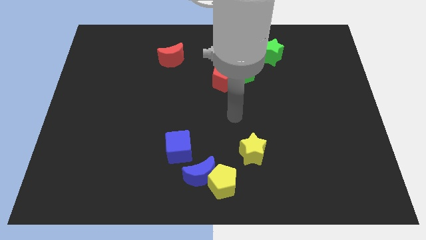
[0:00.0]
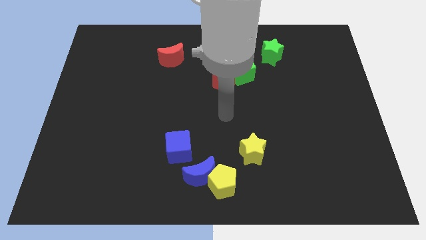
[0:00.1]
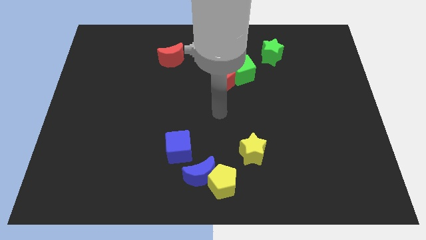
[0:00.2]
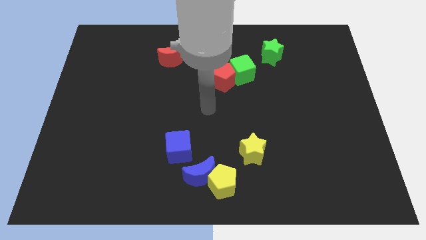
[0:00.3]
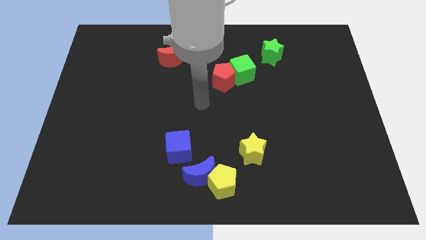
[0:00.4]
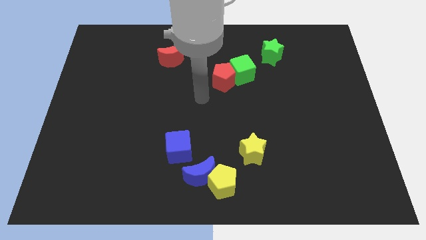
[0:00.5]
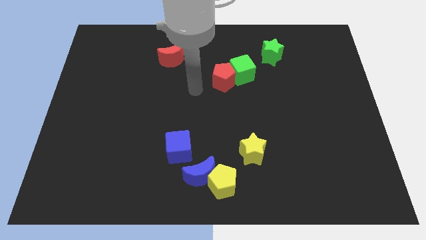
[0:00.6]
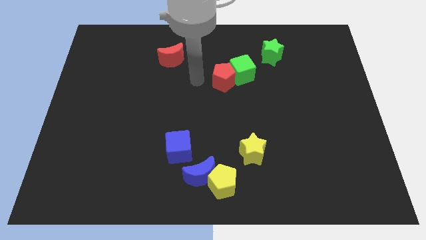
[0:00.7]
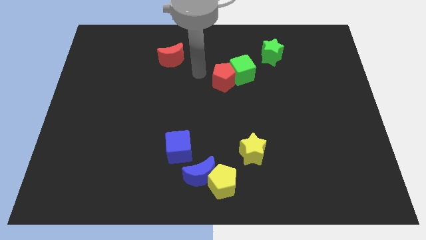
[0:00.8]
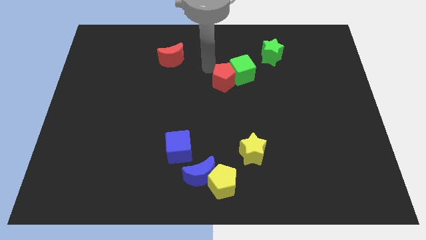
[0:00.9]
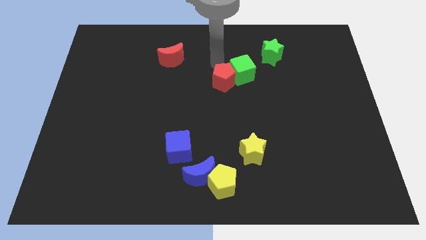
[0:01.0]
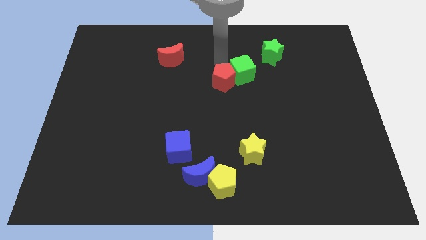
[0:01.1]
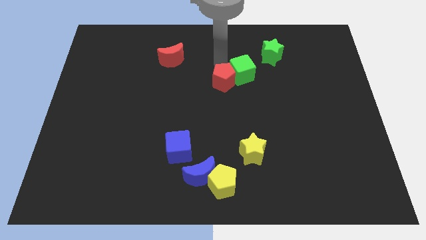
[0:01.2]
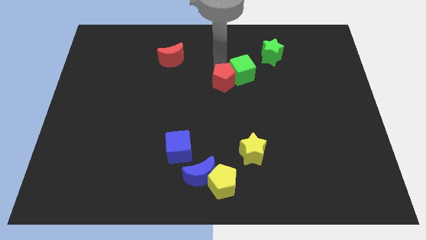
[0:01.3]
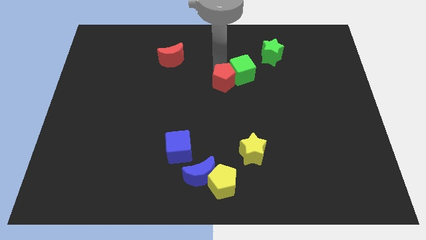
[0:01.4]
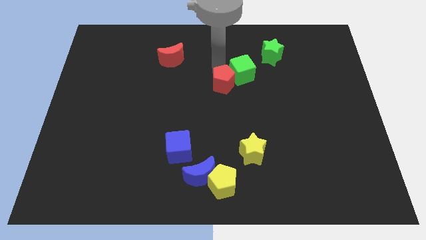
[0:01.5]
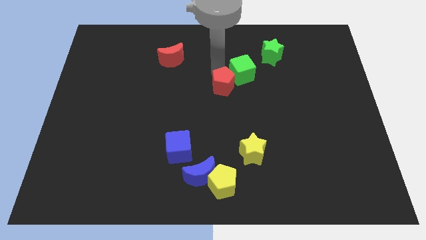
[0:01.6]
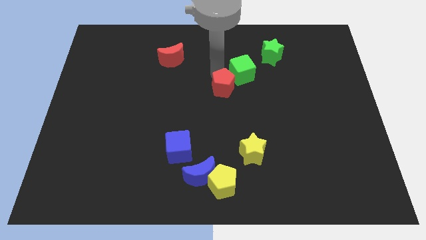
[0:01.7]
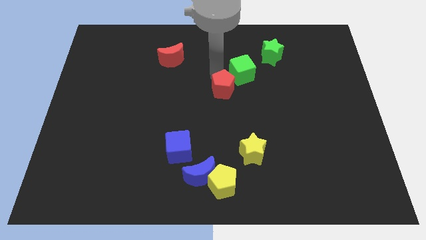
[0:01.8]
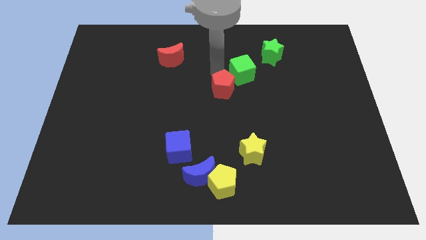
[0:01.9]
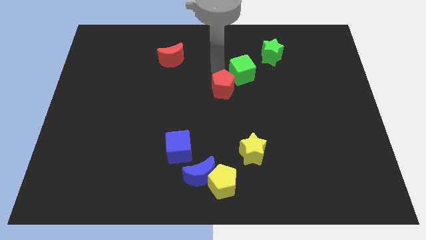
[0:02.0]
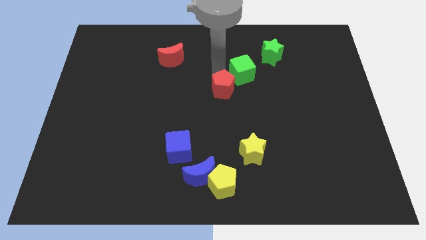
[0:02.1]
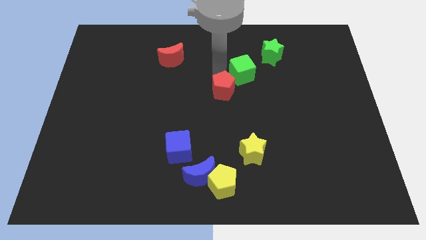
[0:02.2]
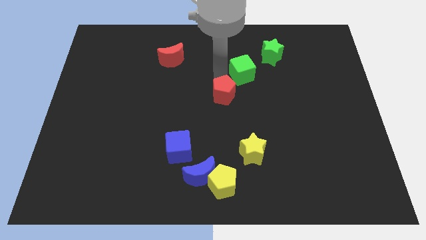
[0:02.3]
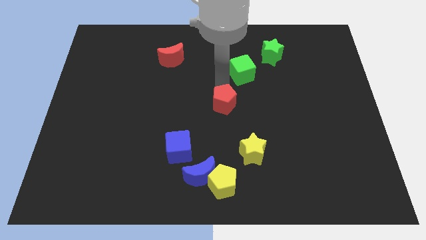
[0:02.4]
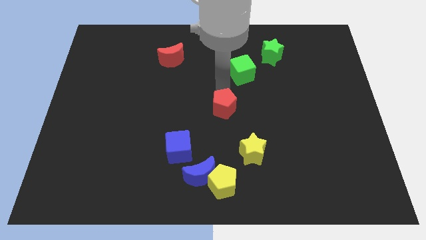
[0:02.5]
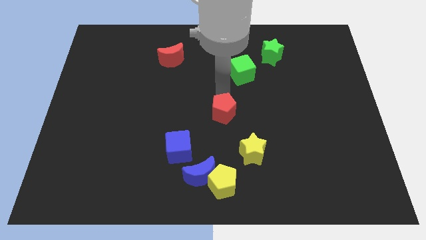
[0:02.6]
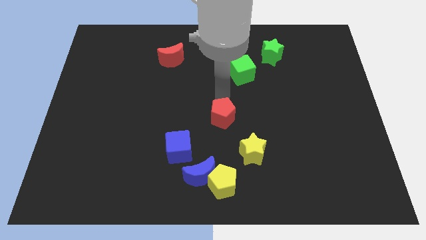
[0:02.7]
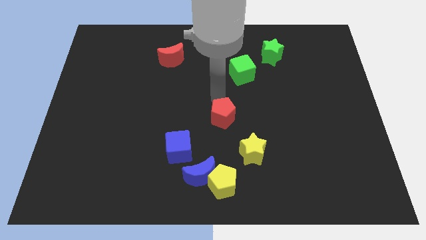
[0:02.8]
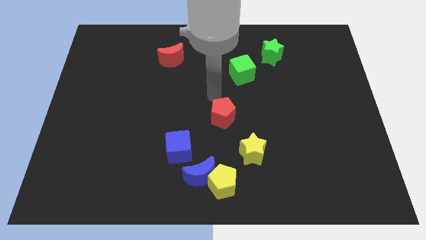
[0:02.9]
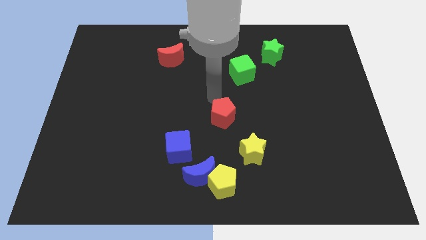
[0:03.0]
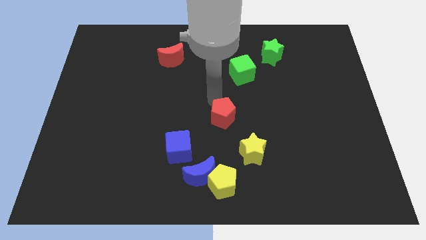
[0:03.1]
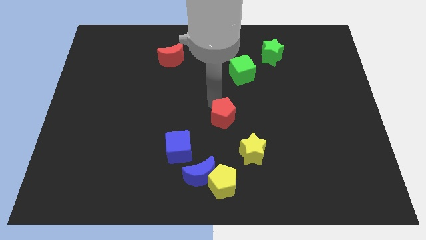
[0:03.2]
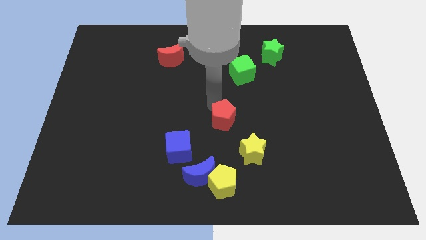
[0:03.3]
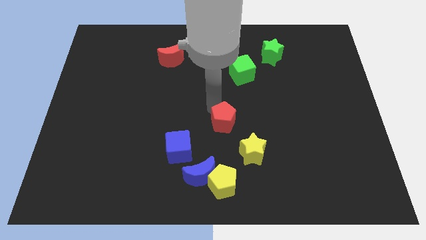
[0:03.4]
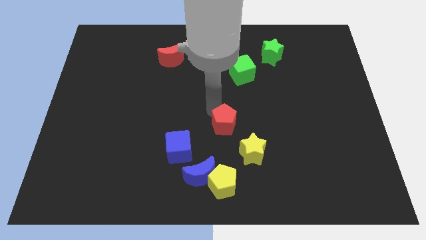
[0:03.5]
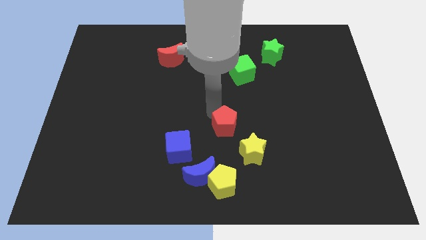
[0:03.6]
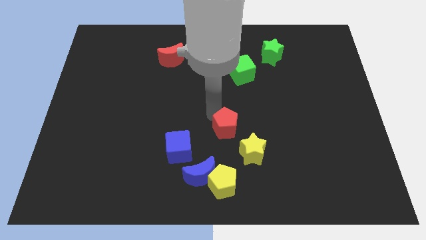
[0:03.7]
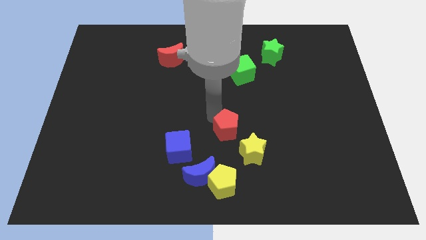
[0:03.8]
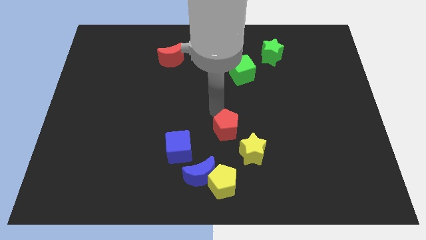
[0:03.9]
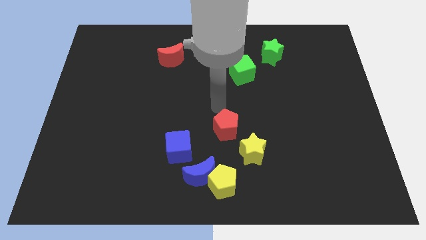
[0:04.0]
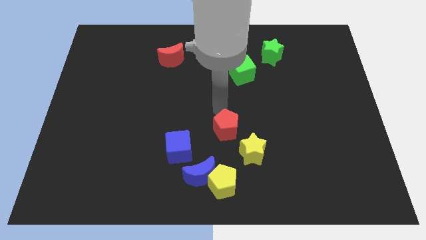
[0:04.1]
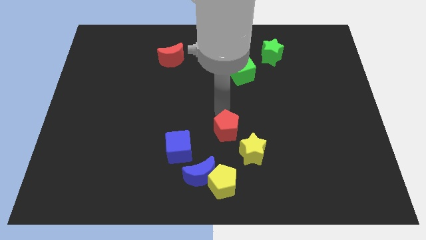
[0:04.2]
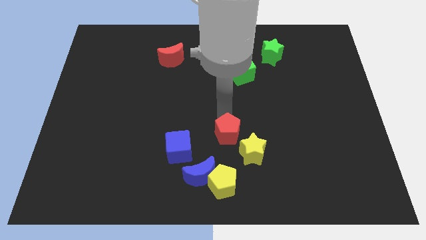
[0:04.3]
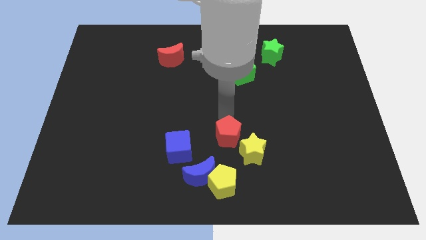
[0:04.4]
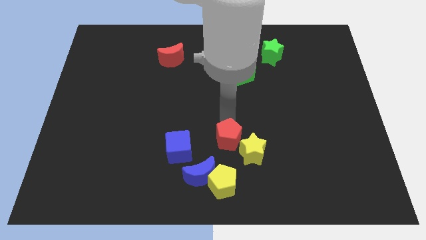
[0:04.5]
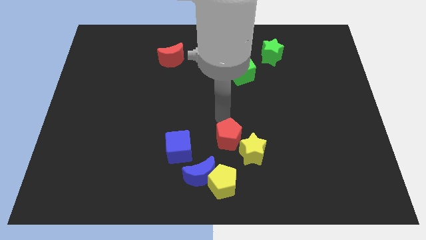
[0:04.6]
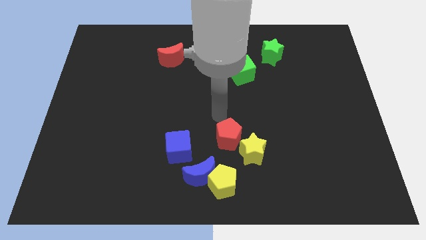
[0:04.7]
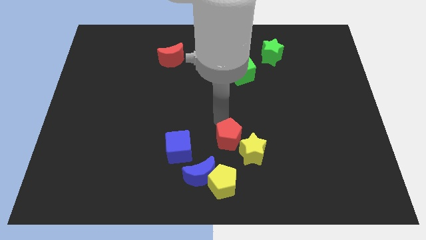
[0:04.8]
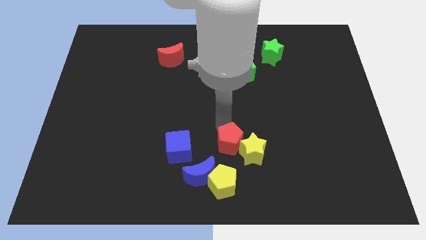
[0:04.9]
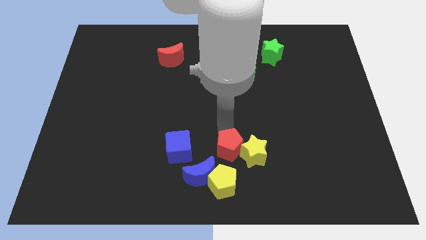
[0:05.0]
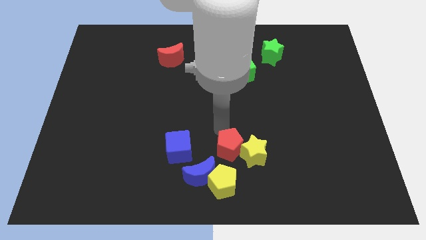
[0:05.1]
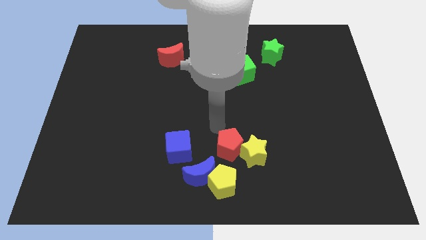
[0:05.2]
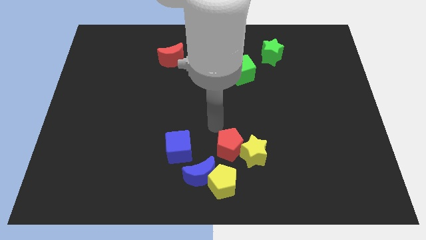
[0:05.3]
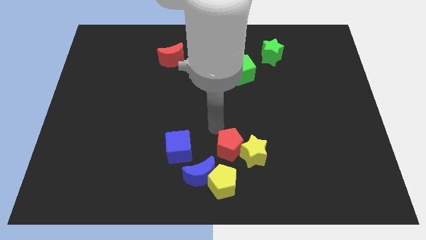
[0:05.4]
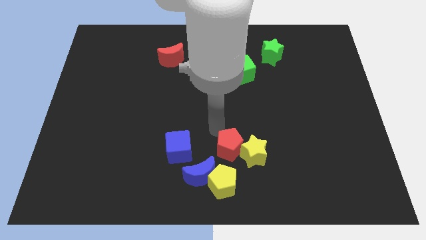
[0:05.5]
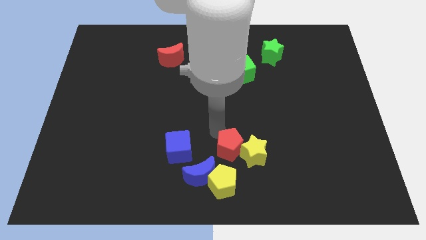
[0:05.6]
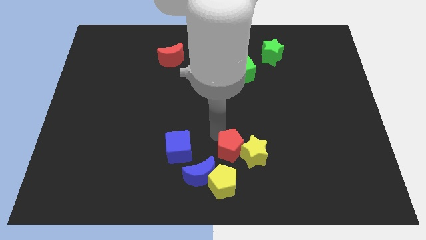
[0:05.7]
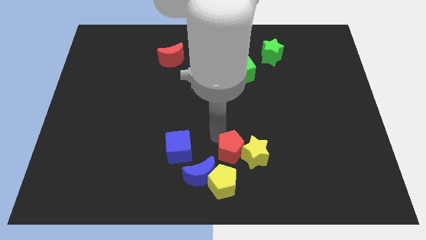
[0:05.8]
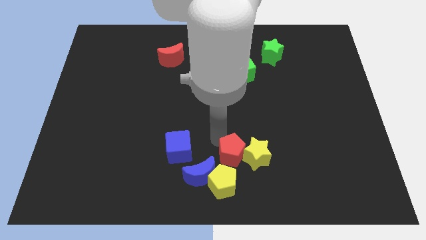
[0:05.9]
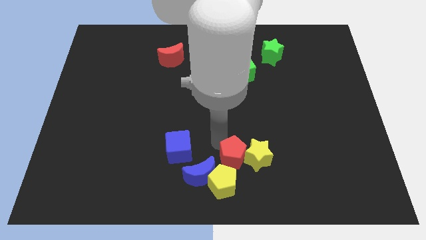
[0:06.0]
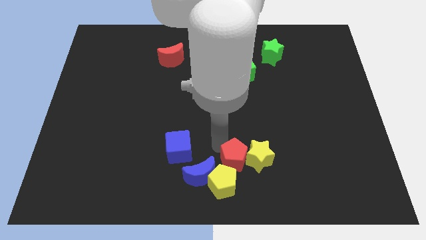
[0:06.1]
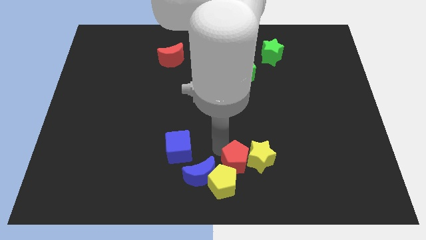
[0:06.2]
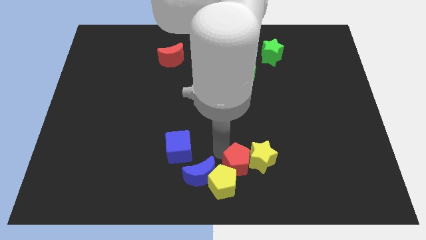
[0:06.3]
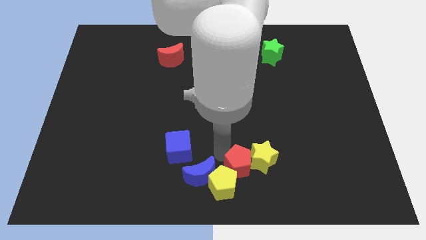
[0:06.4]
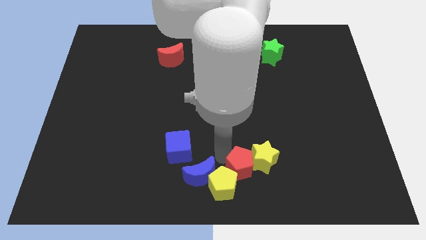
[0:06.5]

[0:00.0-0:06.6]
slide the red pentagon to the right side of the yellow pentagon
